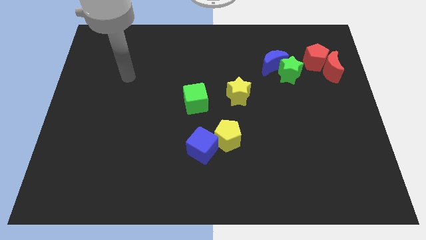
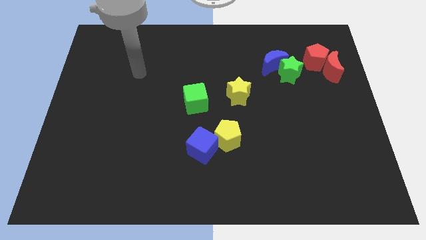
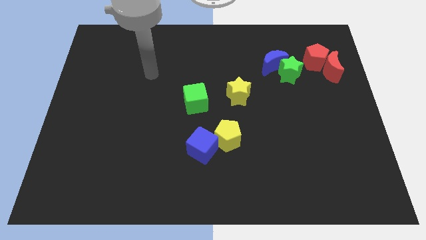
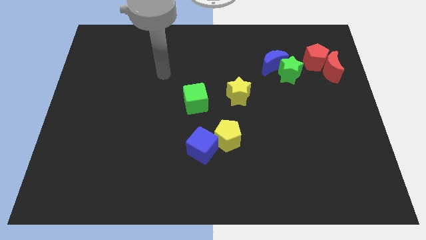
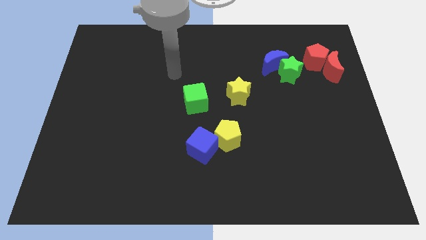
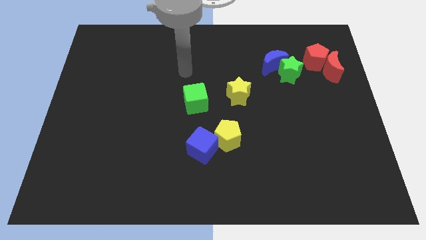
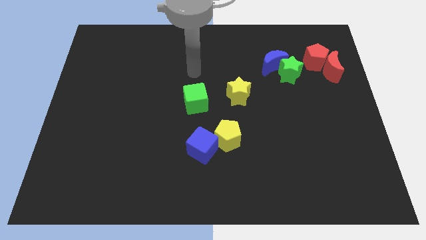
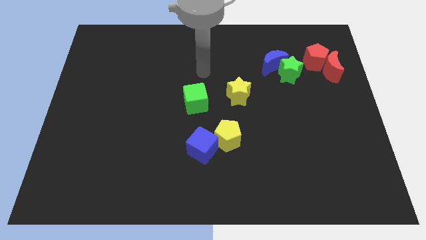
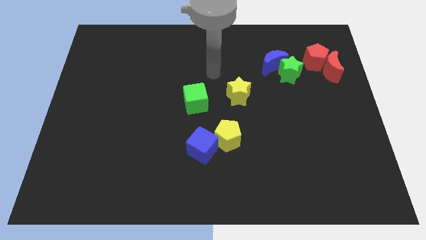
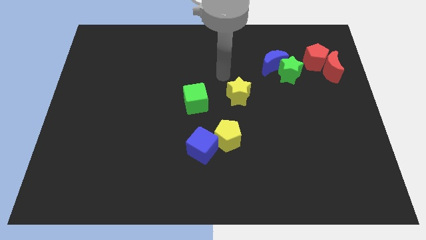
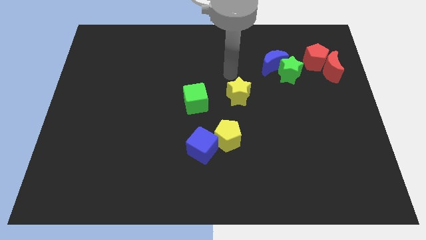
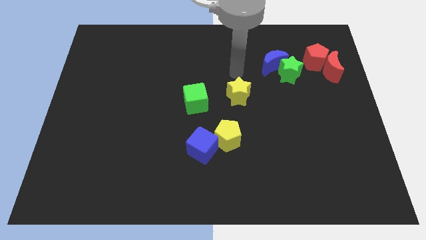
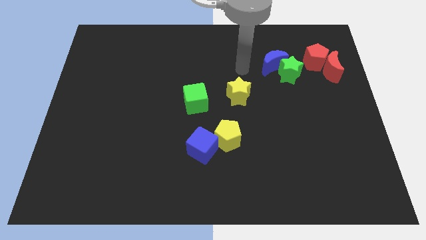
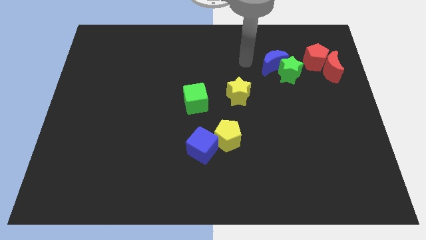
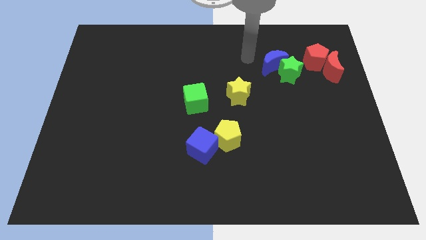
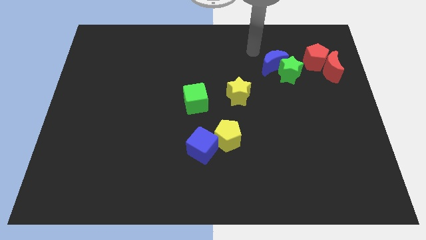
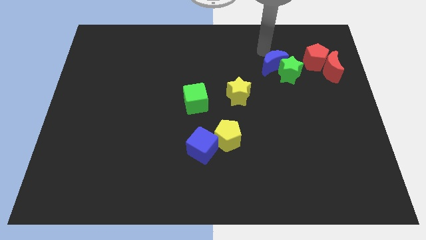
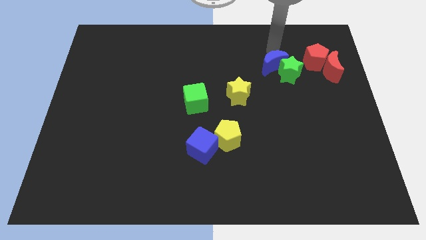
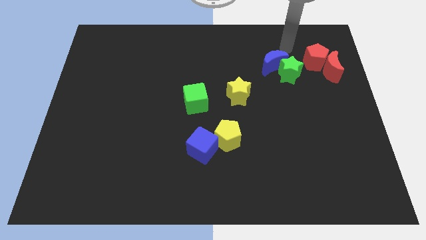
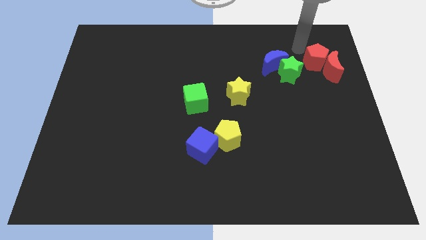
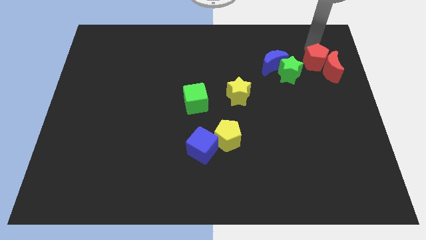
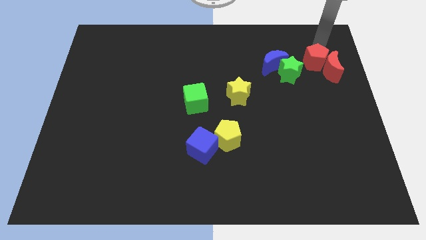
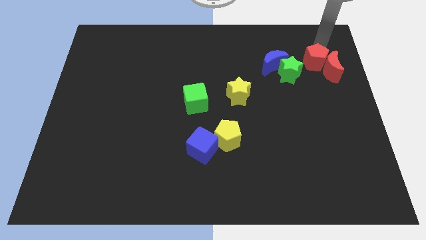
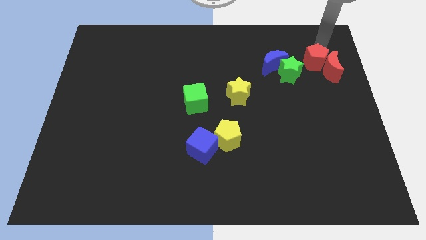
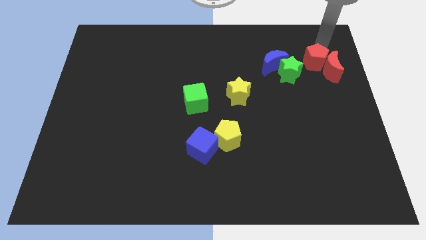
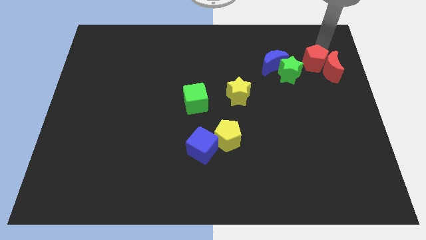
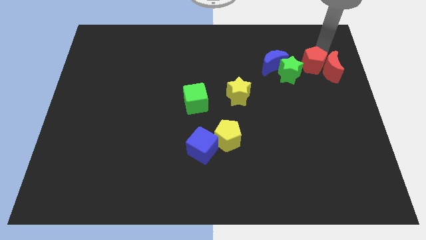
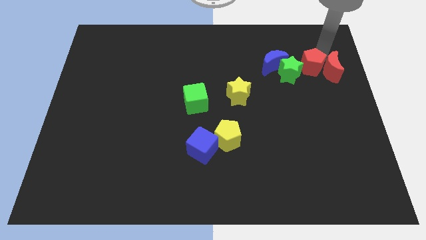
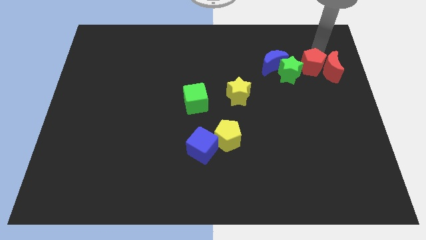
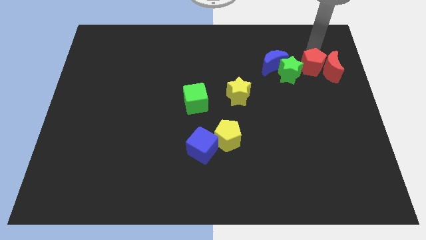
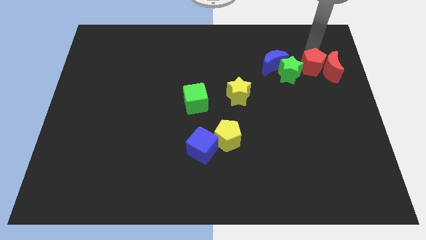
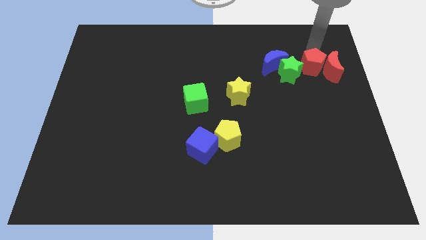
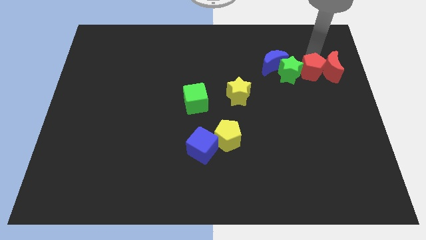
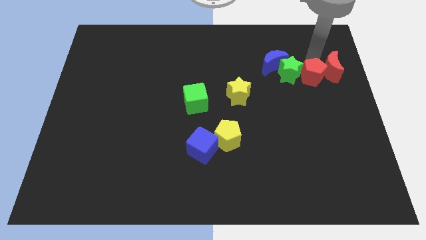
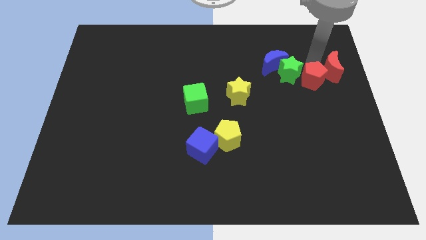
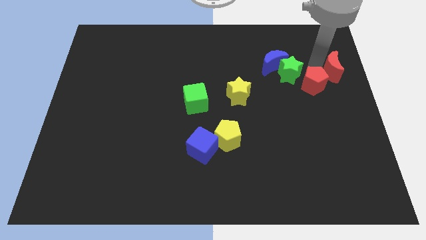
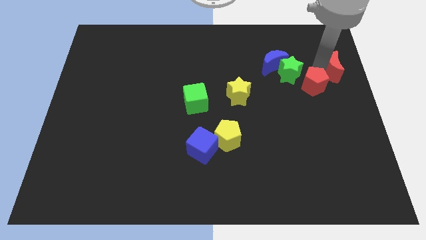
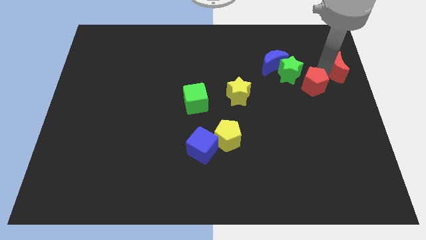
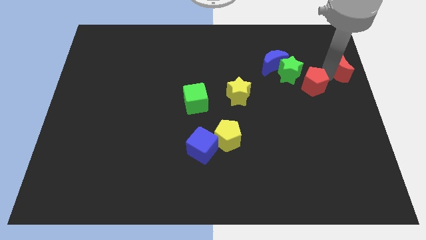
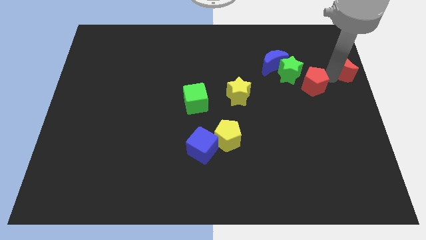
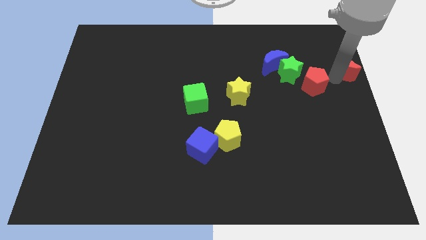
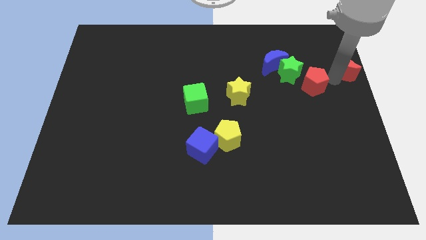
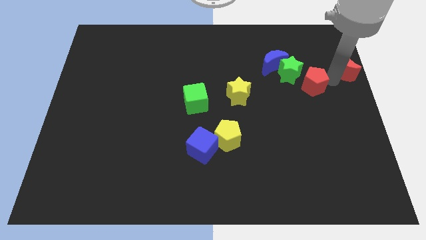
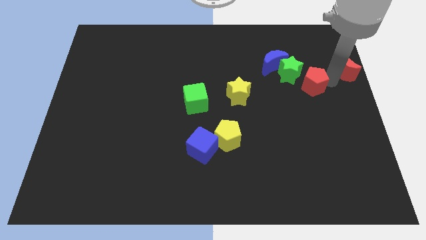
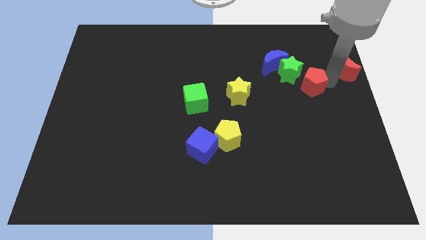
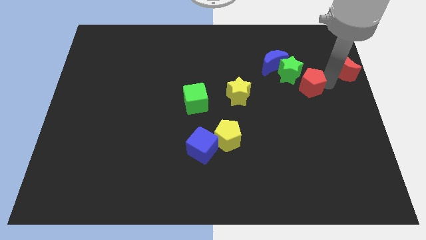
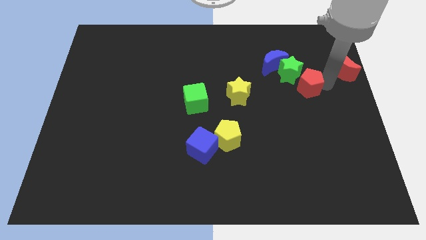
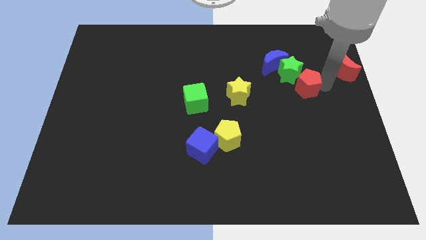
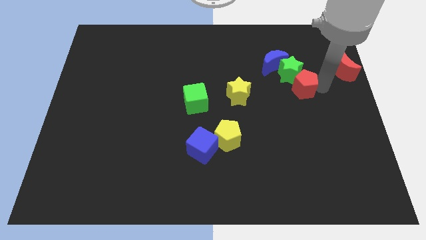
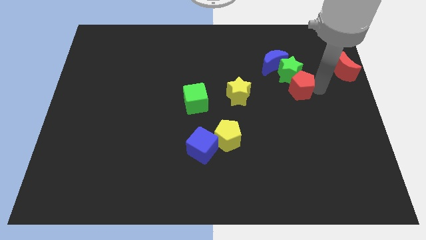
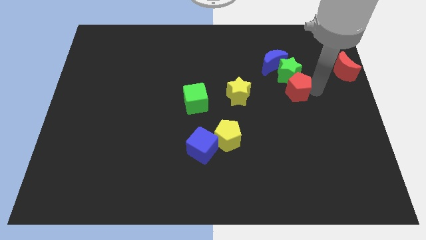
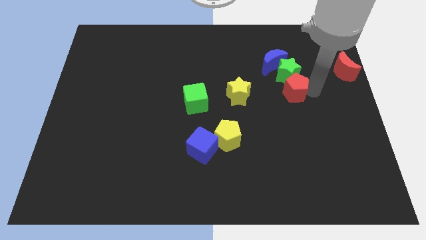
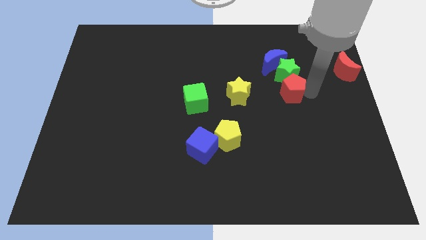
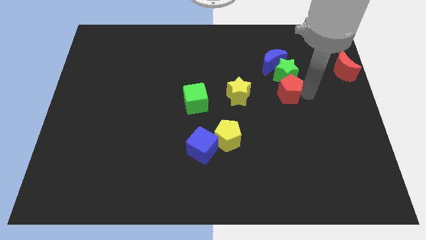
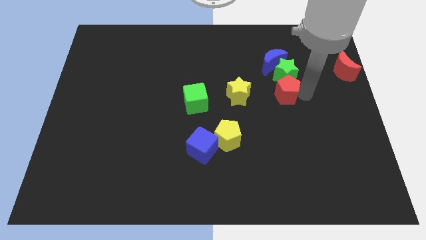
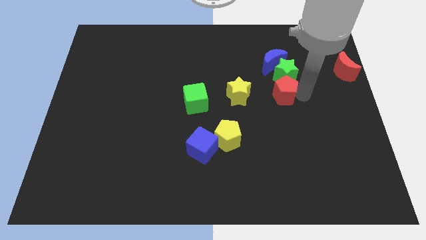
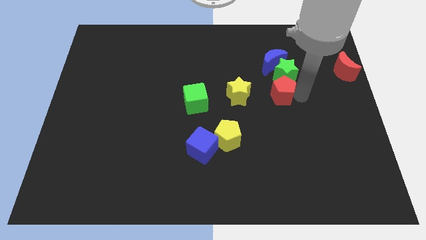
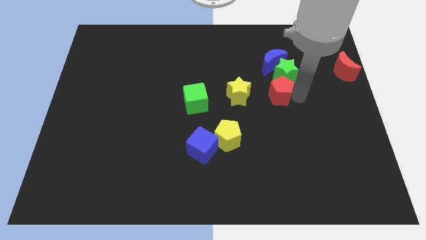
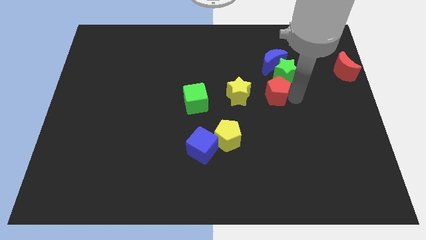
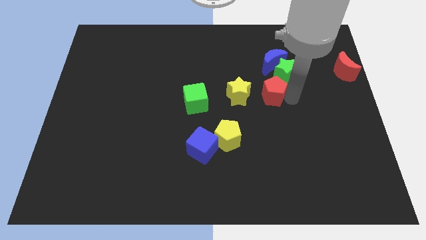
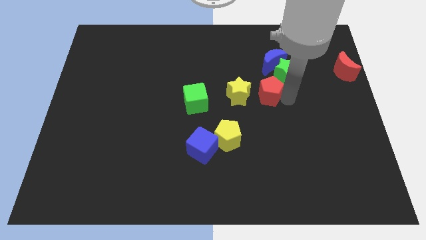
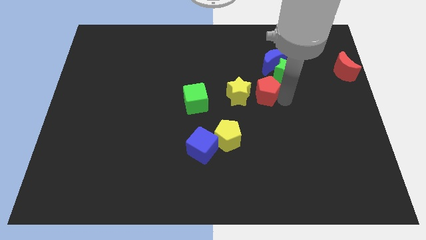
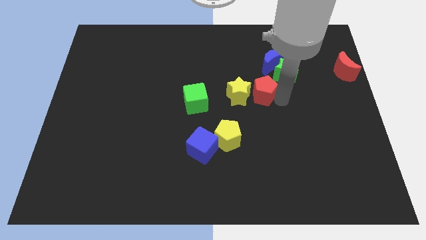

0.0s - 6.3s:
move the red pentagon next to the yellow star

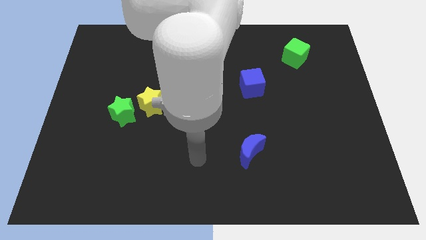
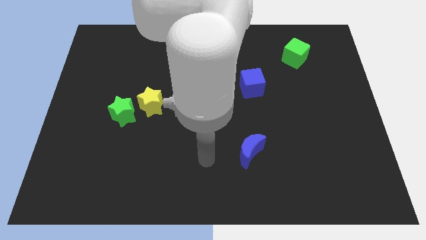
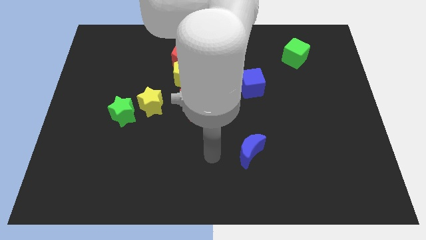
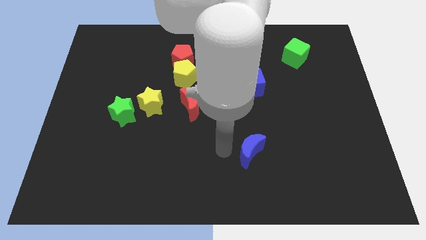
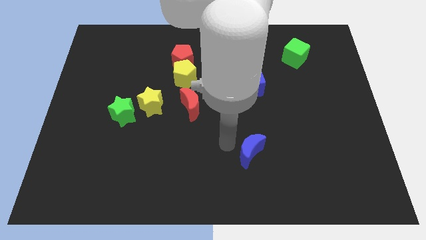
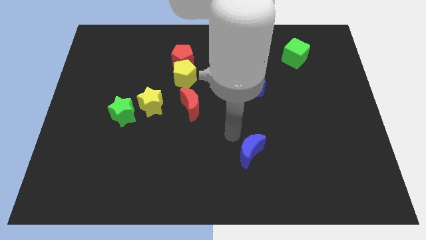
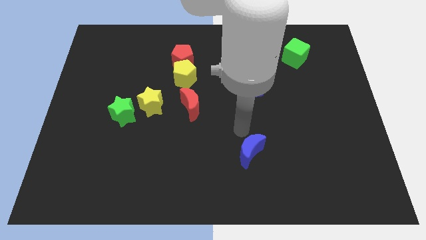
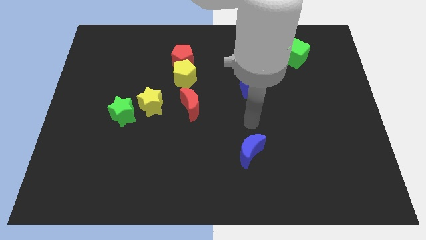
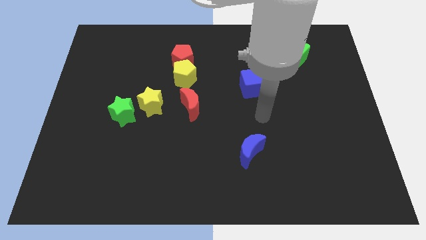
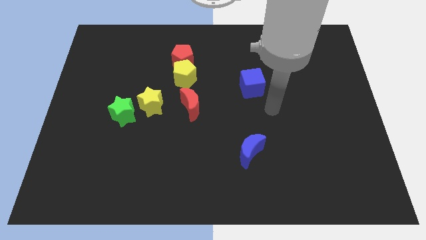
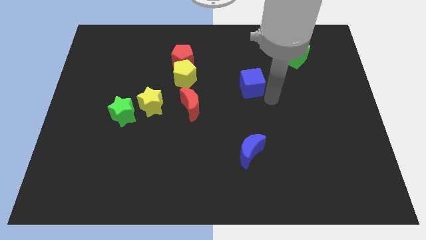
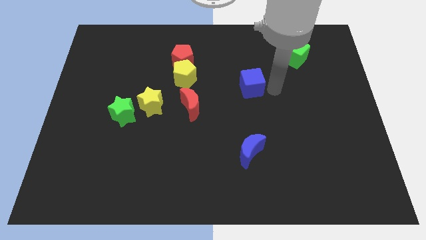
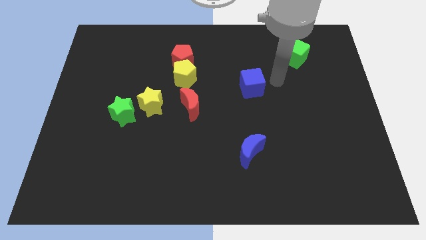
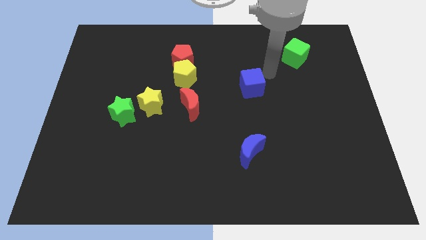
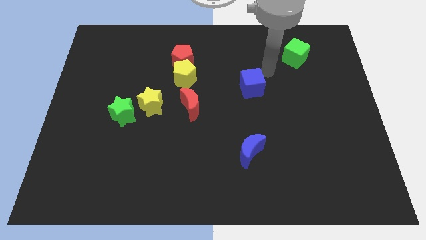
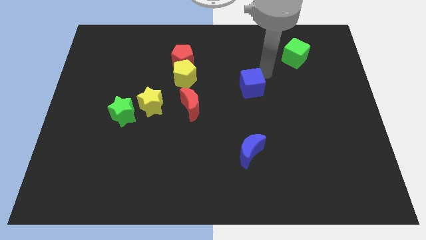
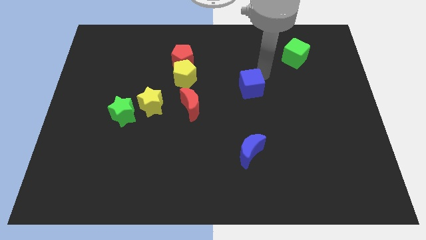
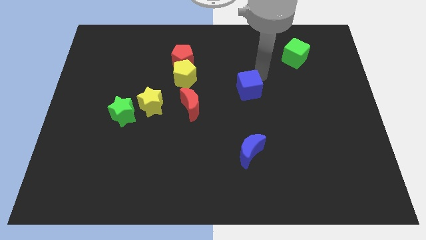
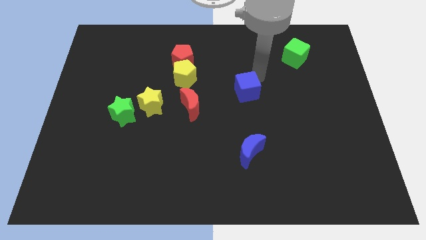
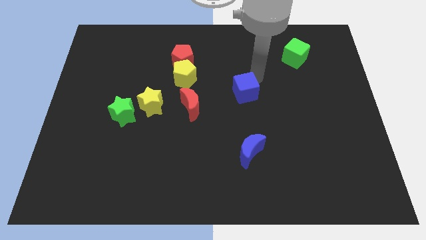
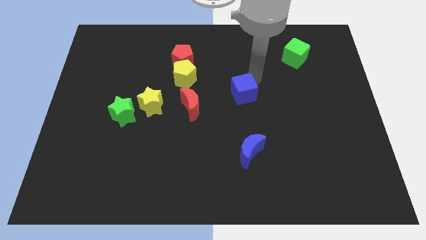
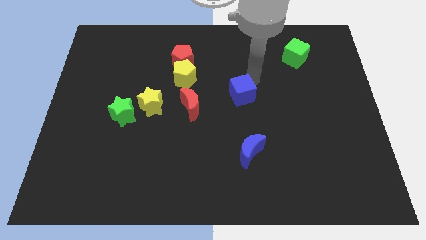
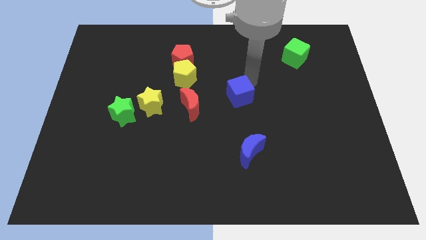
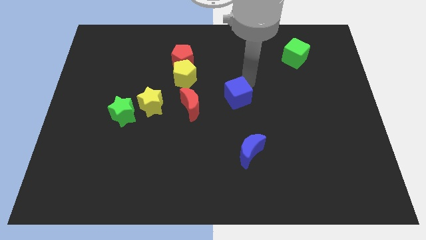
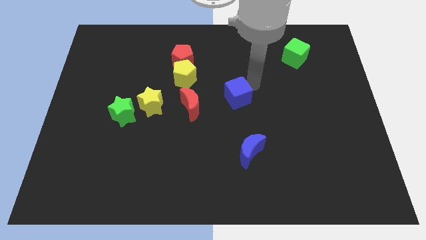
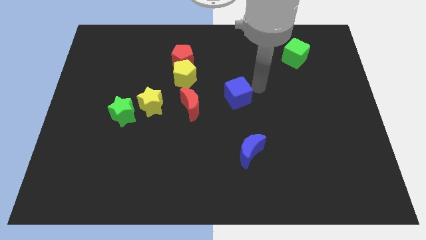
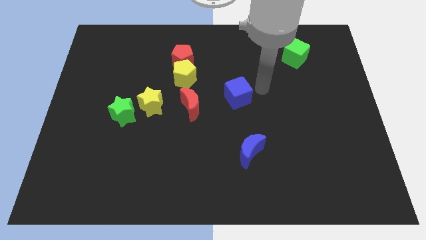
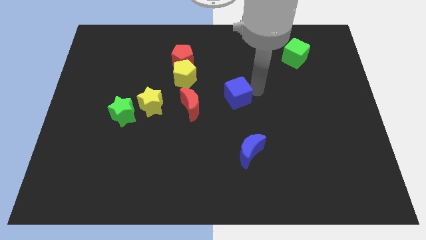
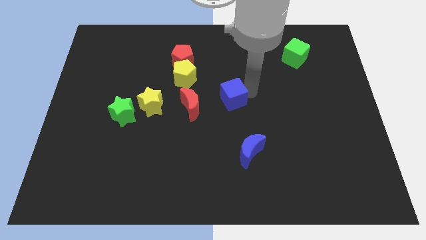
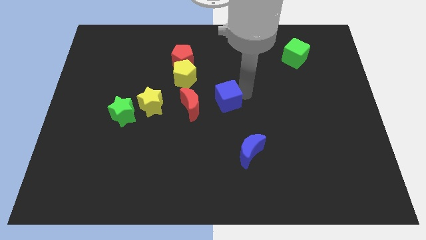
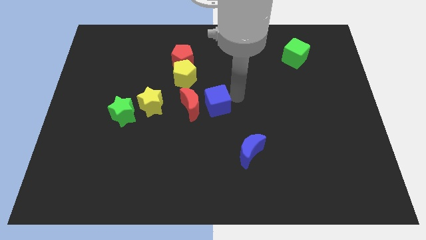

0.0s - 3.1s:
slide the blue cube towards the red moon
